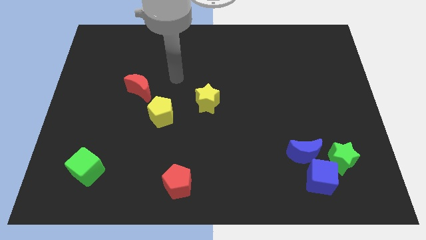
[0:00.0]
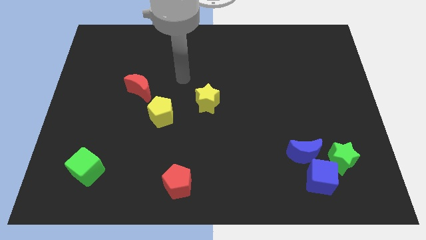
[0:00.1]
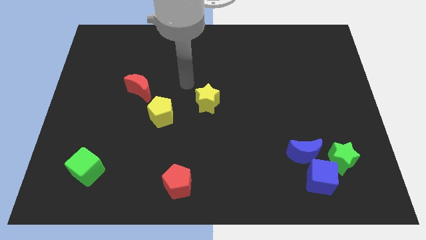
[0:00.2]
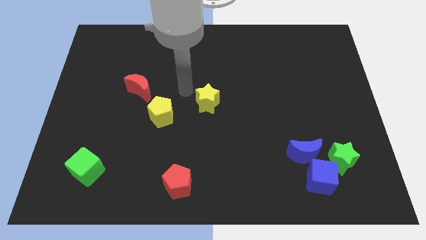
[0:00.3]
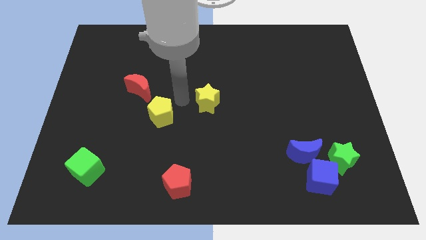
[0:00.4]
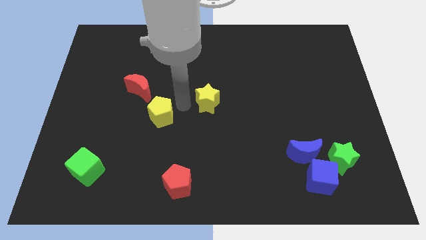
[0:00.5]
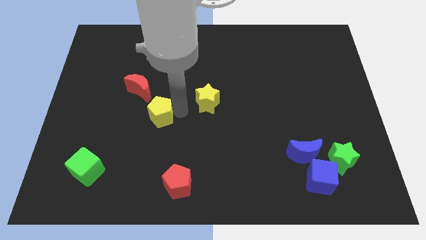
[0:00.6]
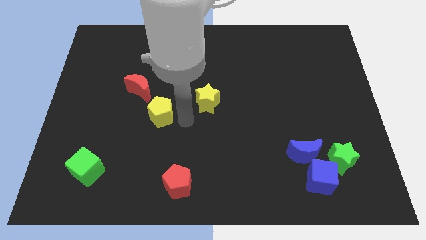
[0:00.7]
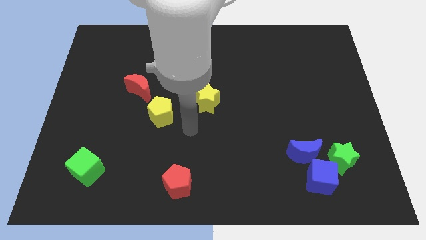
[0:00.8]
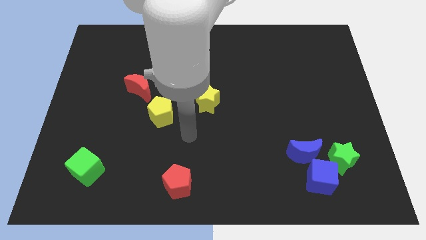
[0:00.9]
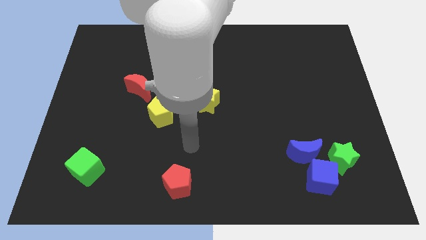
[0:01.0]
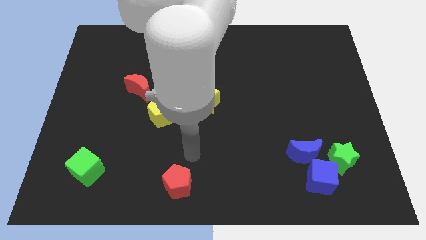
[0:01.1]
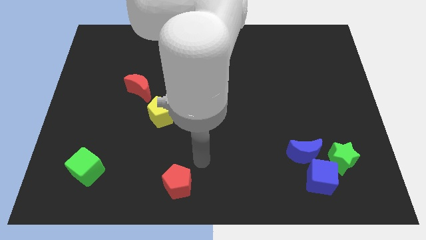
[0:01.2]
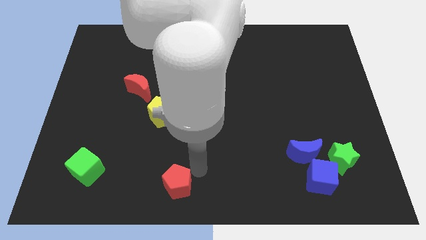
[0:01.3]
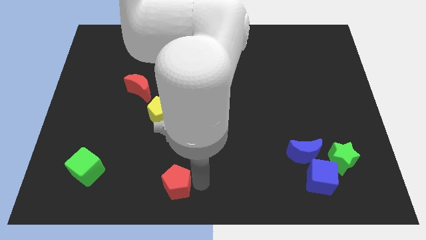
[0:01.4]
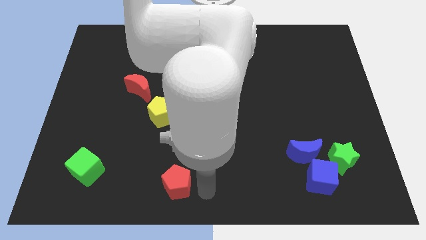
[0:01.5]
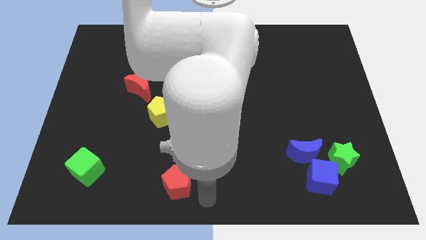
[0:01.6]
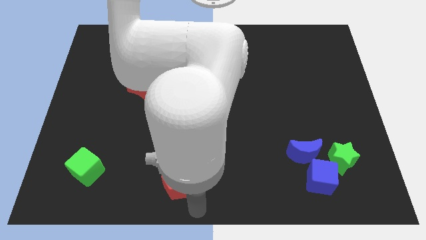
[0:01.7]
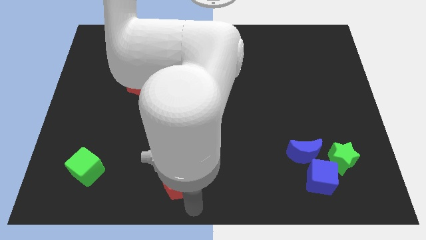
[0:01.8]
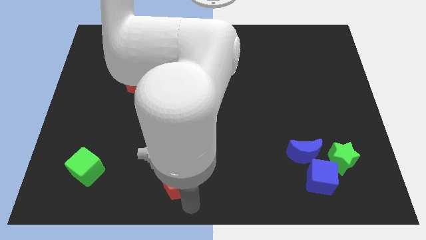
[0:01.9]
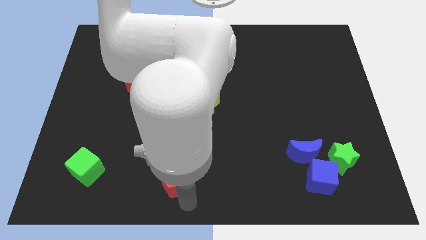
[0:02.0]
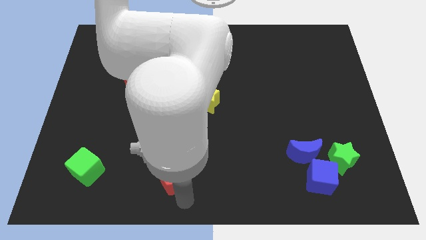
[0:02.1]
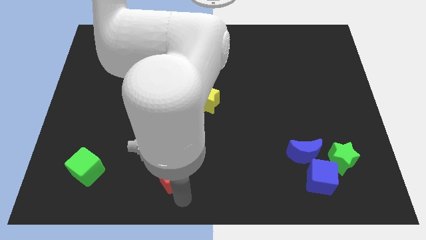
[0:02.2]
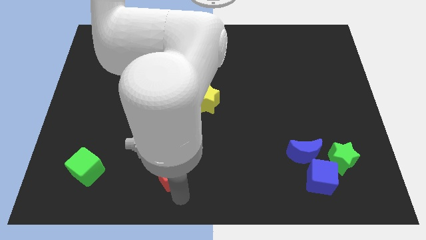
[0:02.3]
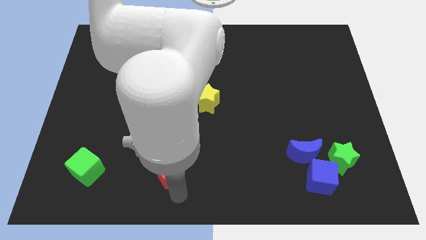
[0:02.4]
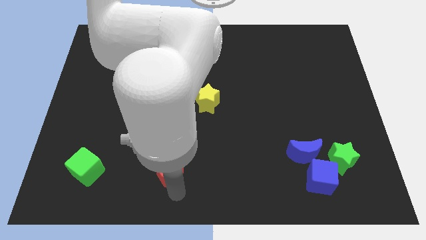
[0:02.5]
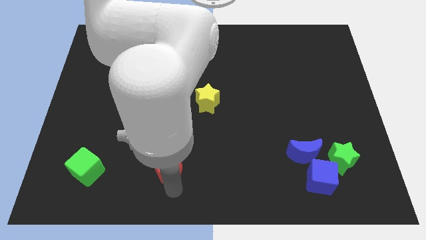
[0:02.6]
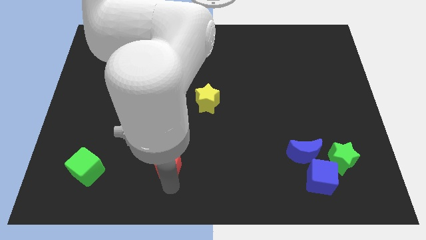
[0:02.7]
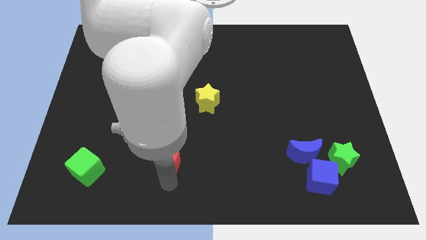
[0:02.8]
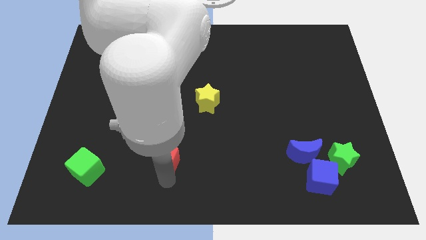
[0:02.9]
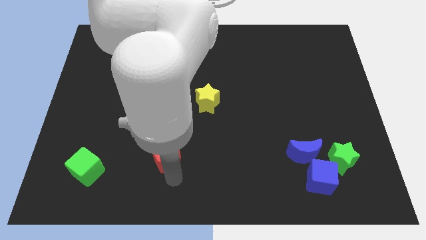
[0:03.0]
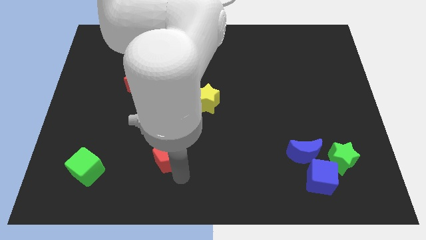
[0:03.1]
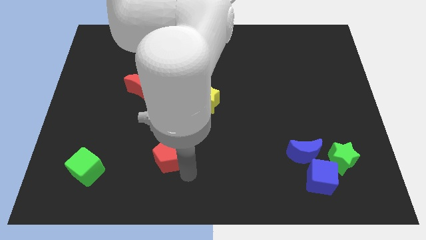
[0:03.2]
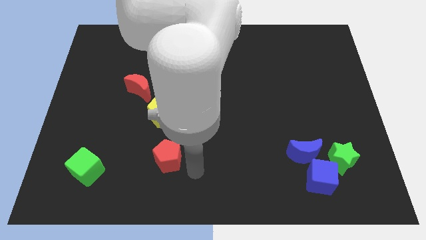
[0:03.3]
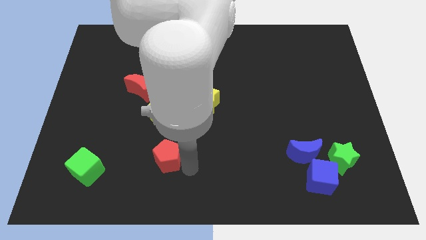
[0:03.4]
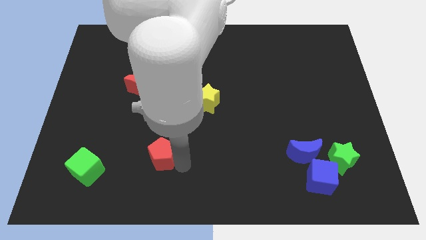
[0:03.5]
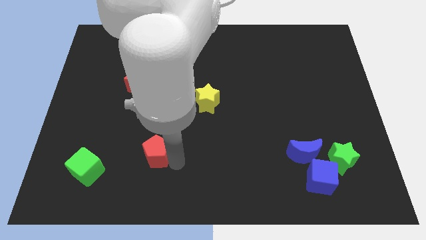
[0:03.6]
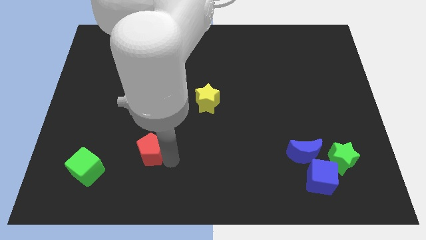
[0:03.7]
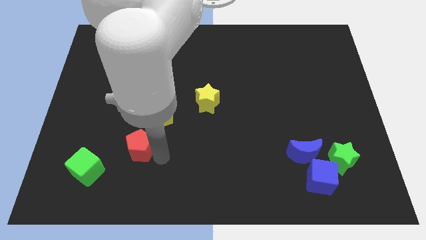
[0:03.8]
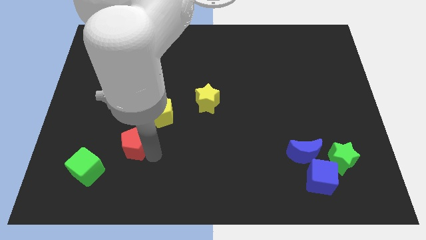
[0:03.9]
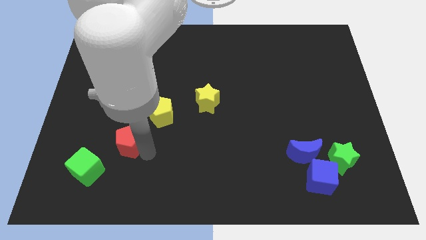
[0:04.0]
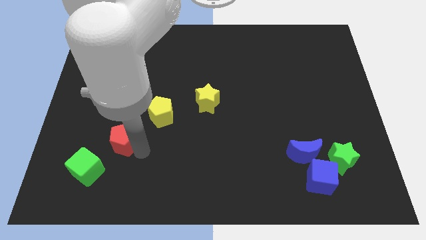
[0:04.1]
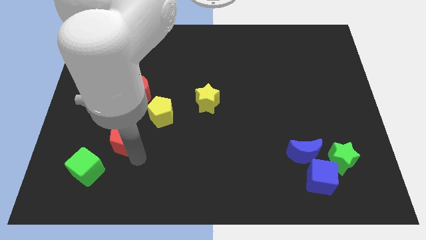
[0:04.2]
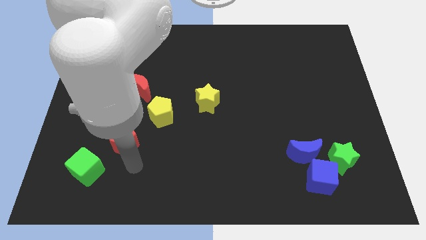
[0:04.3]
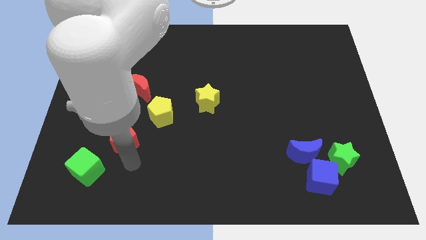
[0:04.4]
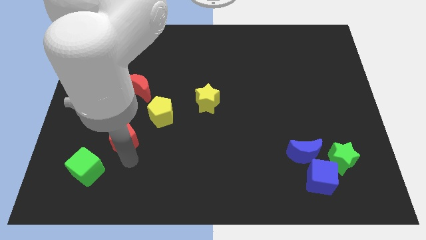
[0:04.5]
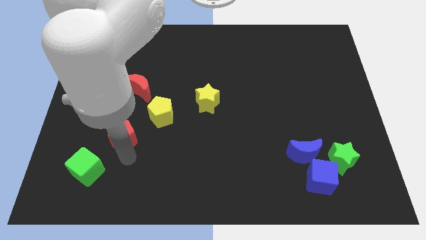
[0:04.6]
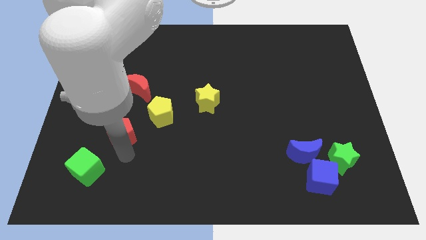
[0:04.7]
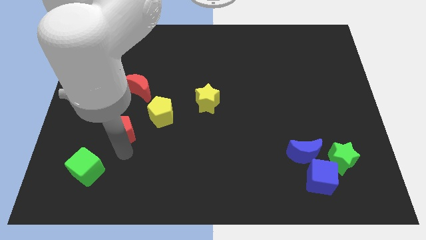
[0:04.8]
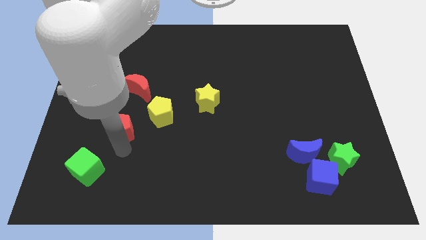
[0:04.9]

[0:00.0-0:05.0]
push the red pentagon to the left of the yellow pentagon

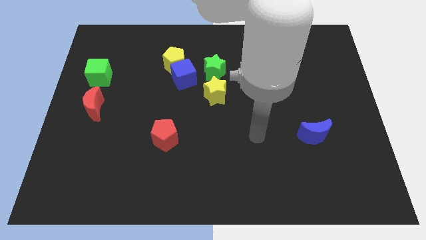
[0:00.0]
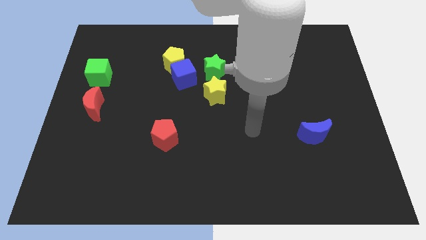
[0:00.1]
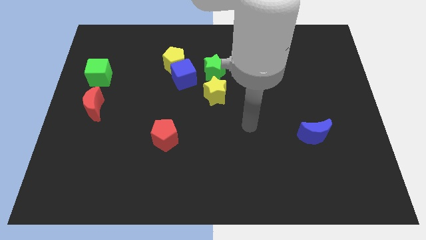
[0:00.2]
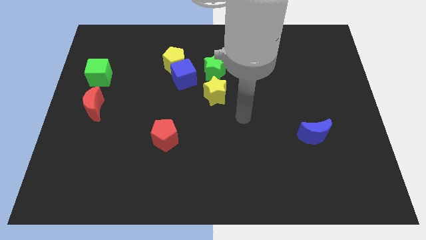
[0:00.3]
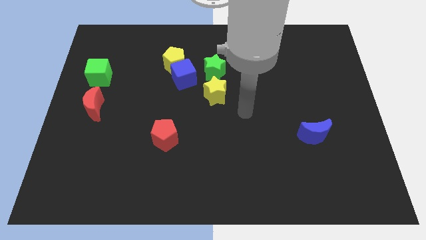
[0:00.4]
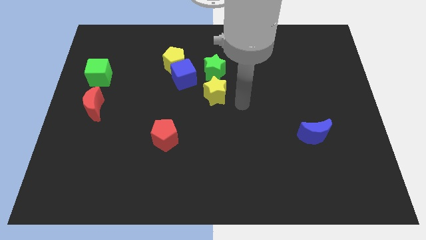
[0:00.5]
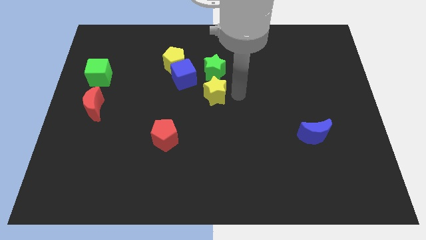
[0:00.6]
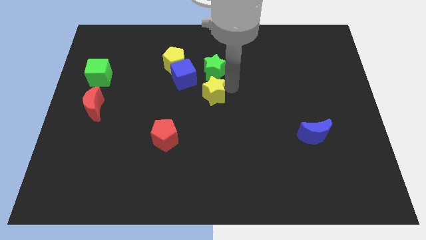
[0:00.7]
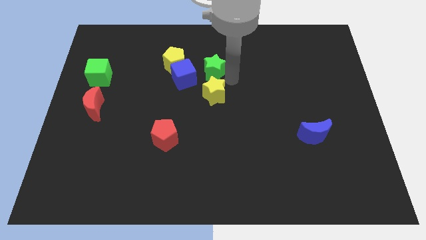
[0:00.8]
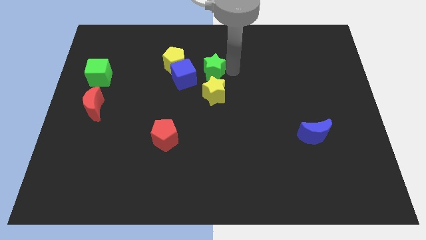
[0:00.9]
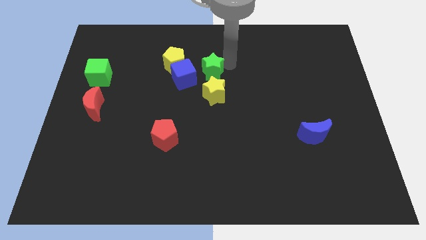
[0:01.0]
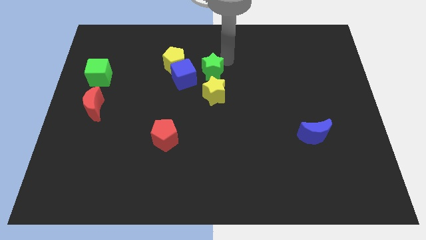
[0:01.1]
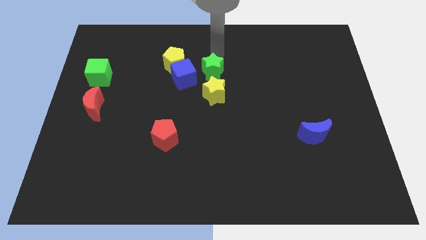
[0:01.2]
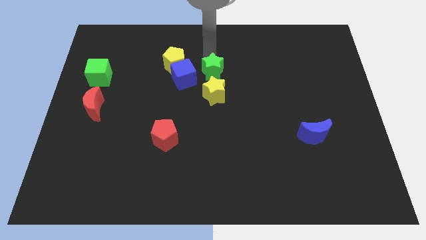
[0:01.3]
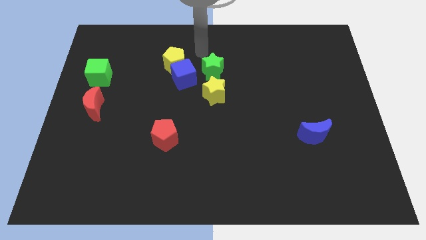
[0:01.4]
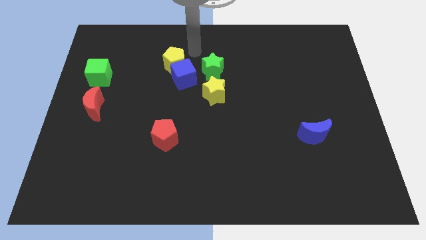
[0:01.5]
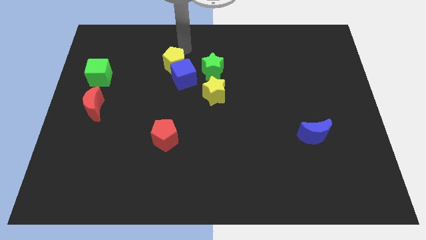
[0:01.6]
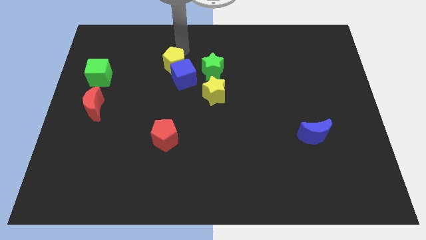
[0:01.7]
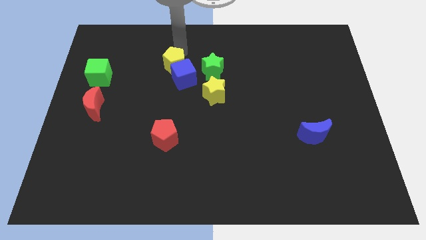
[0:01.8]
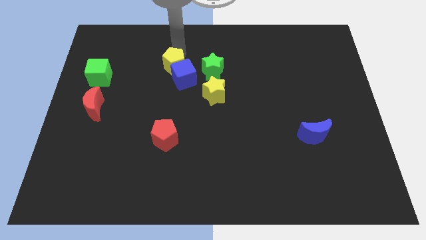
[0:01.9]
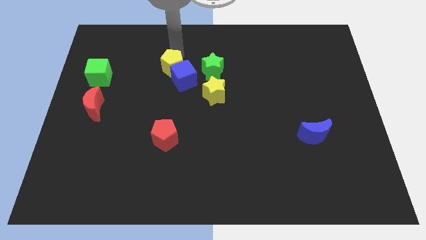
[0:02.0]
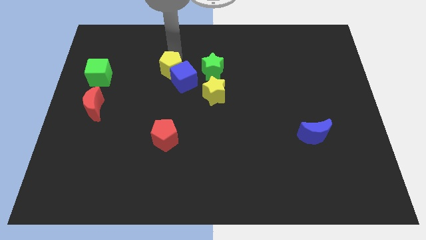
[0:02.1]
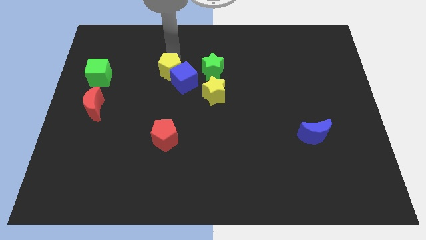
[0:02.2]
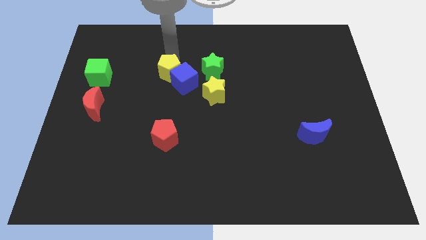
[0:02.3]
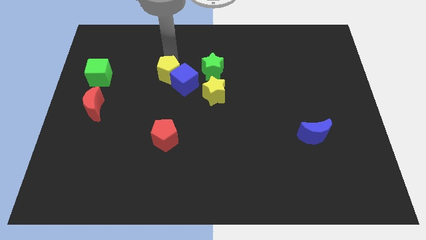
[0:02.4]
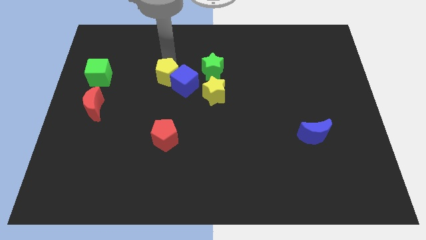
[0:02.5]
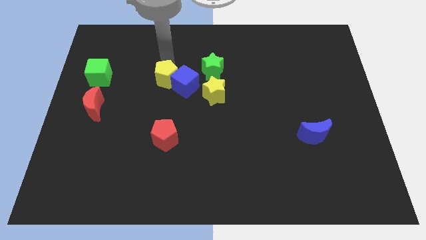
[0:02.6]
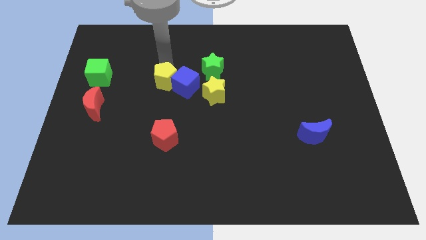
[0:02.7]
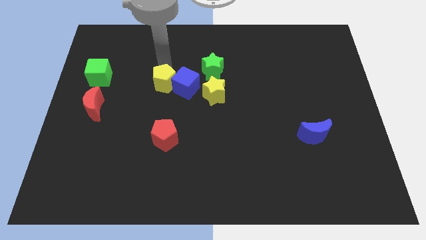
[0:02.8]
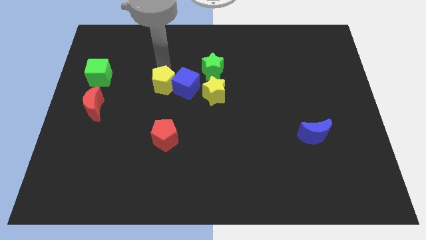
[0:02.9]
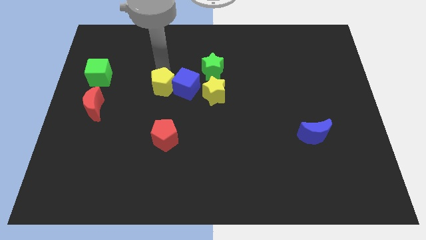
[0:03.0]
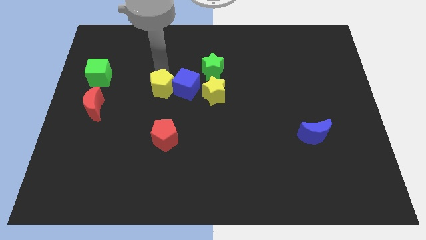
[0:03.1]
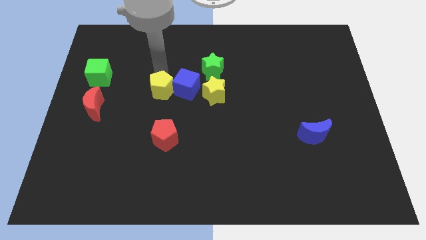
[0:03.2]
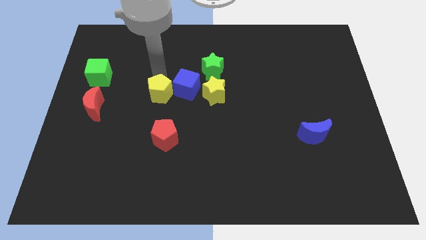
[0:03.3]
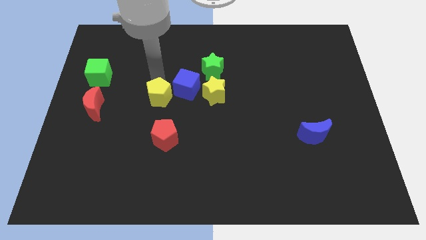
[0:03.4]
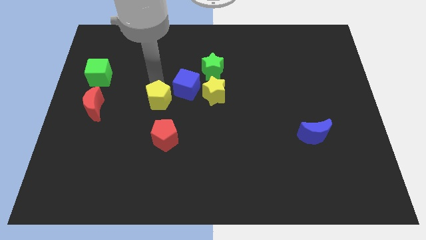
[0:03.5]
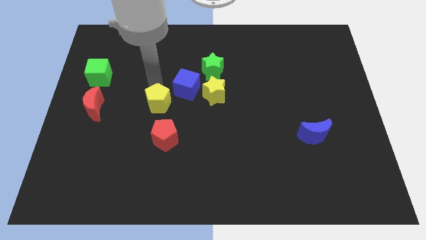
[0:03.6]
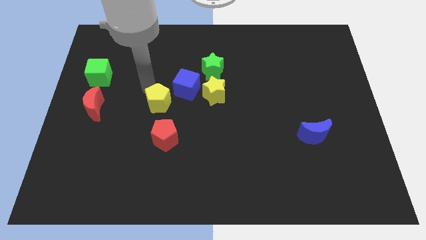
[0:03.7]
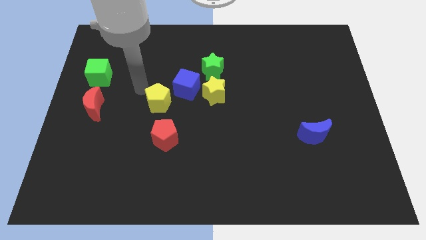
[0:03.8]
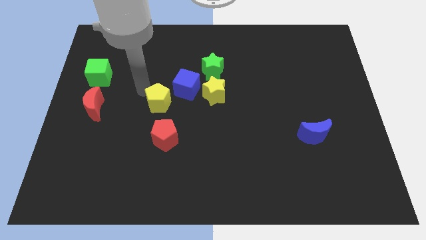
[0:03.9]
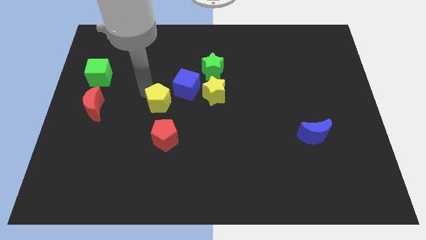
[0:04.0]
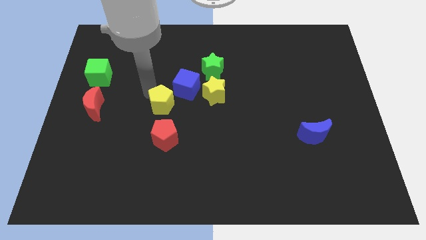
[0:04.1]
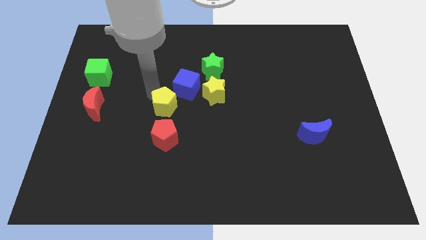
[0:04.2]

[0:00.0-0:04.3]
move the yellow pentagon to the bottom of the blue cube
